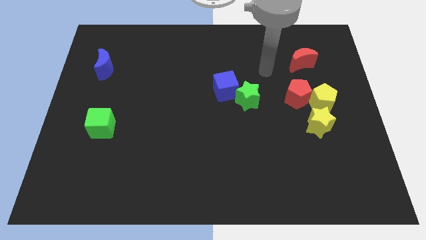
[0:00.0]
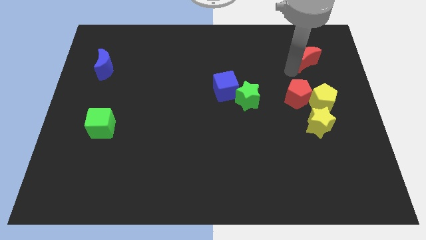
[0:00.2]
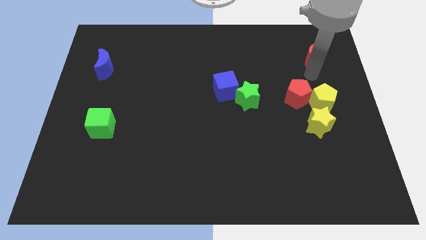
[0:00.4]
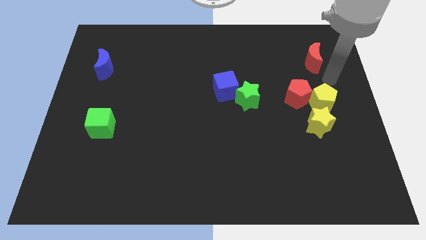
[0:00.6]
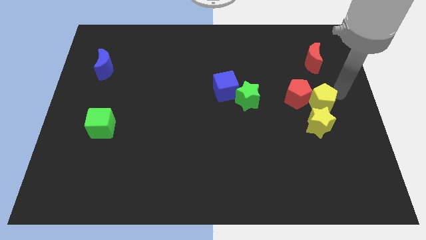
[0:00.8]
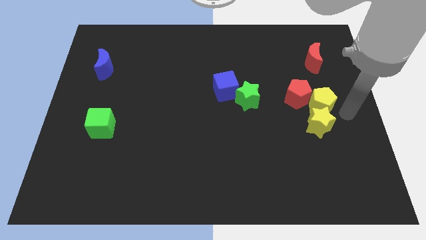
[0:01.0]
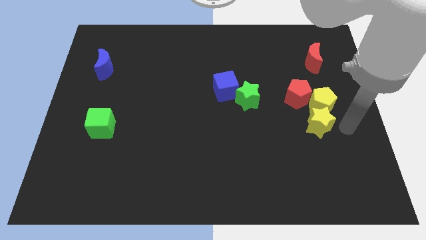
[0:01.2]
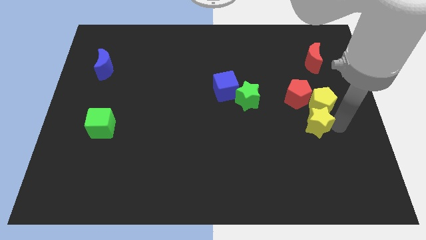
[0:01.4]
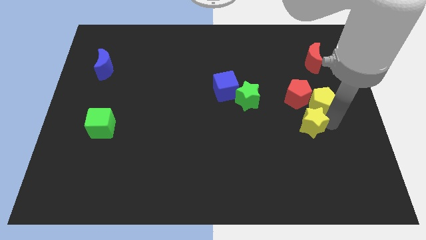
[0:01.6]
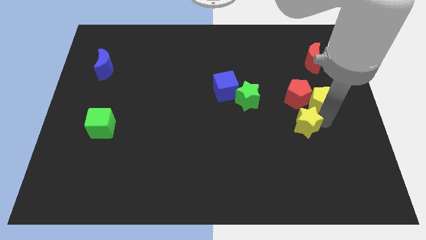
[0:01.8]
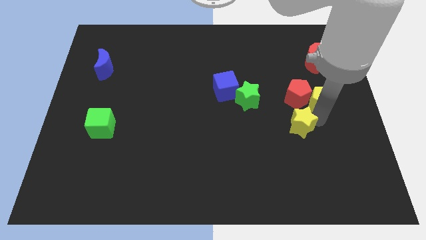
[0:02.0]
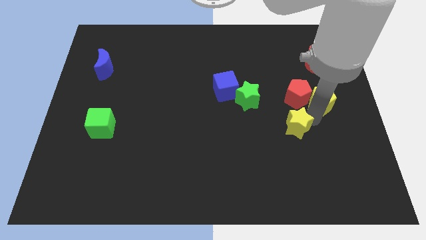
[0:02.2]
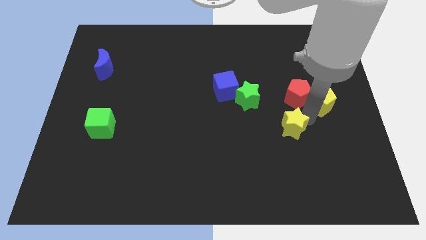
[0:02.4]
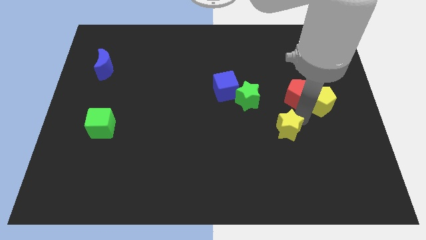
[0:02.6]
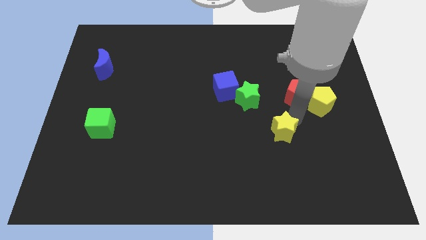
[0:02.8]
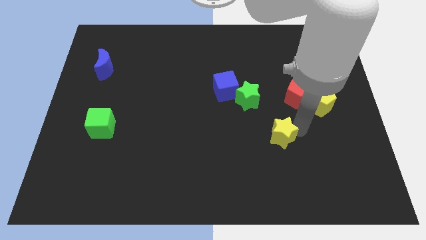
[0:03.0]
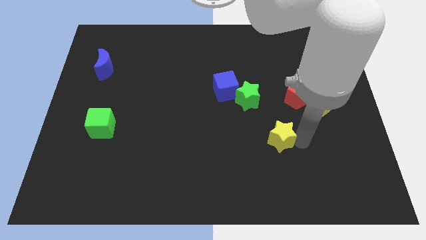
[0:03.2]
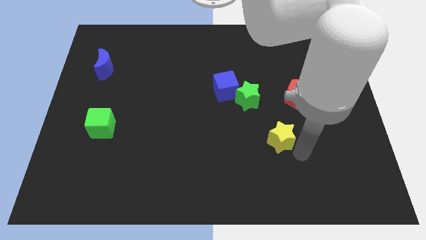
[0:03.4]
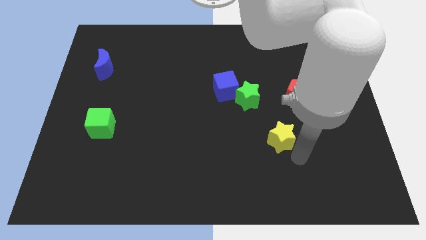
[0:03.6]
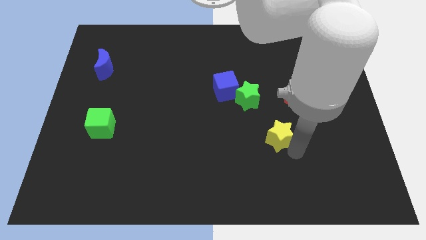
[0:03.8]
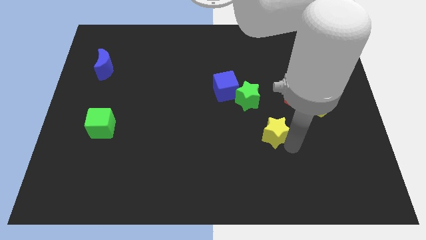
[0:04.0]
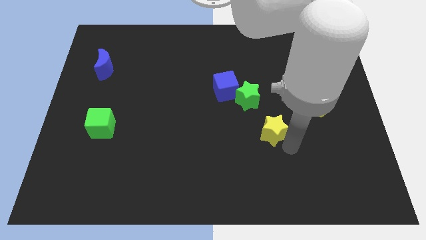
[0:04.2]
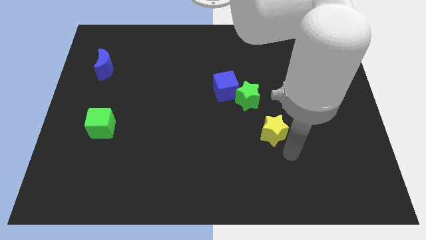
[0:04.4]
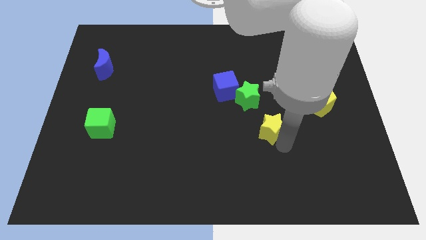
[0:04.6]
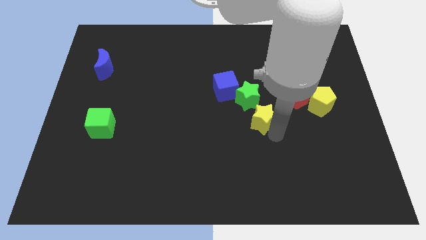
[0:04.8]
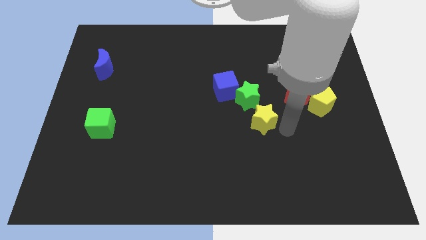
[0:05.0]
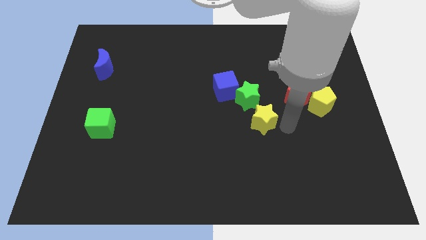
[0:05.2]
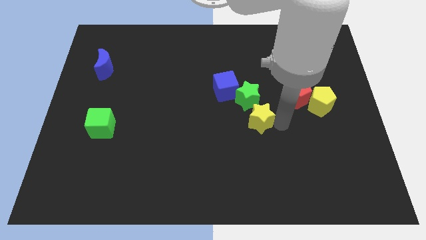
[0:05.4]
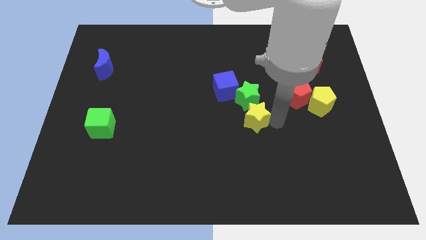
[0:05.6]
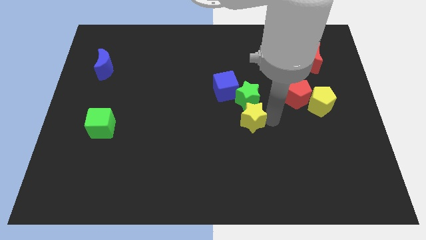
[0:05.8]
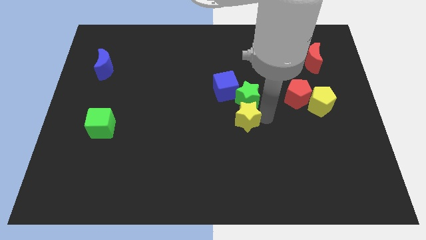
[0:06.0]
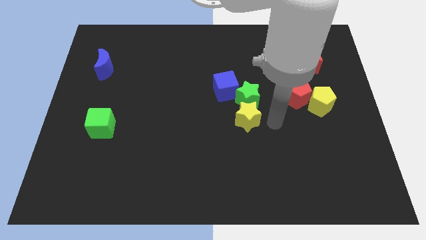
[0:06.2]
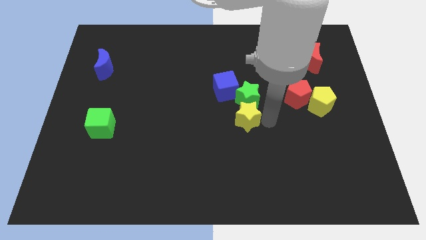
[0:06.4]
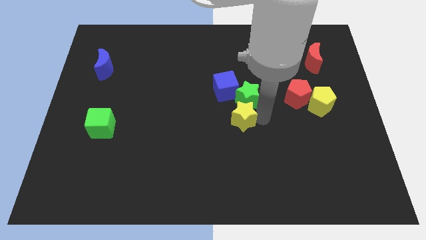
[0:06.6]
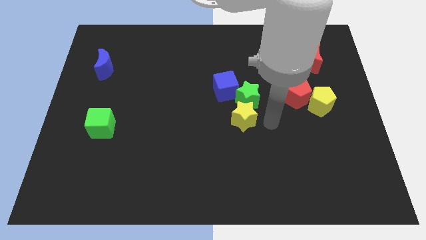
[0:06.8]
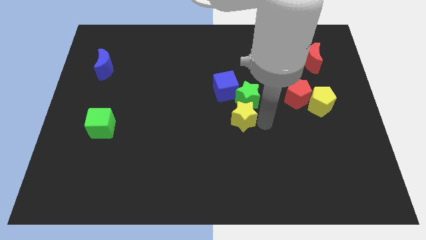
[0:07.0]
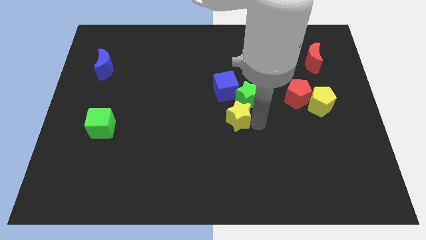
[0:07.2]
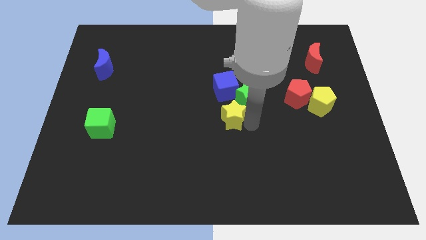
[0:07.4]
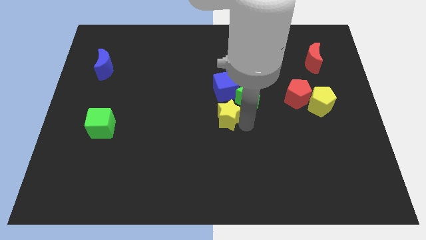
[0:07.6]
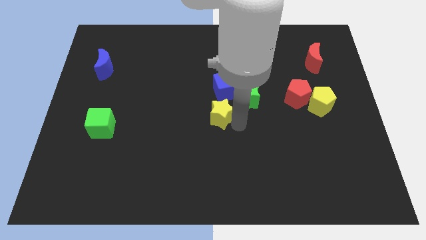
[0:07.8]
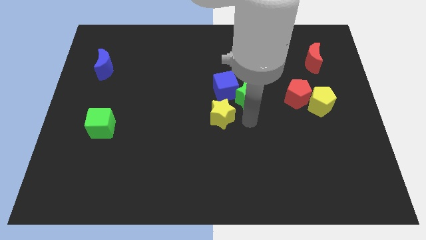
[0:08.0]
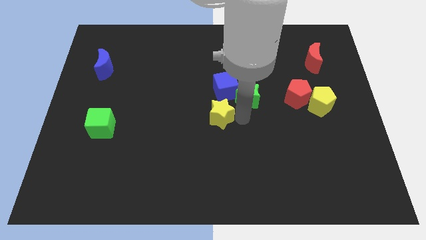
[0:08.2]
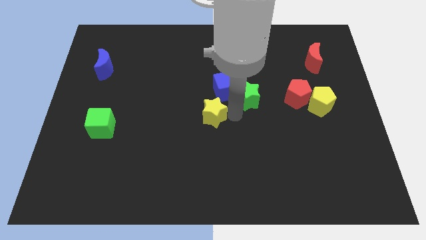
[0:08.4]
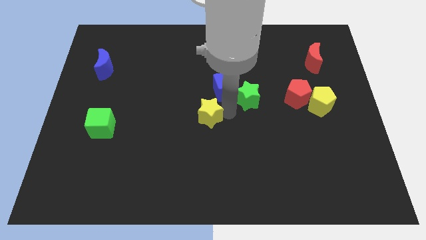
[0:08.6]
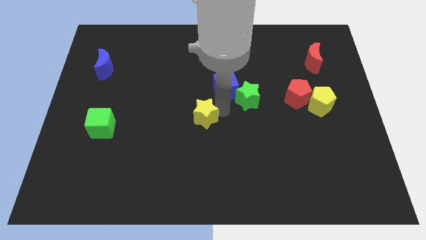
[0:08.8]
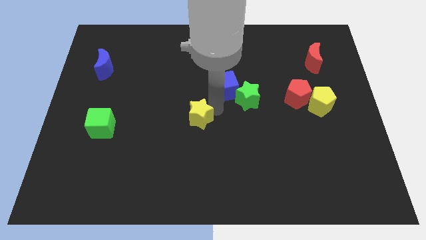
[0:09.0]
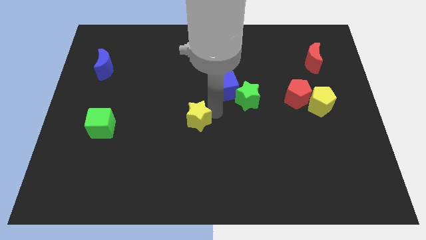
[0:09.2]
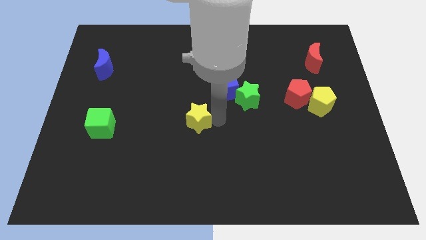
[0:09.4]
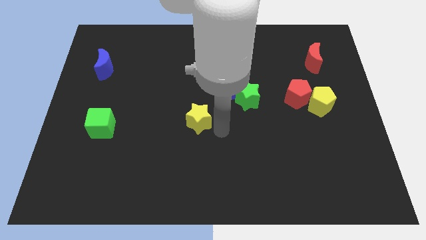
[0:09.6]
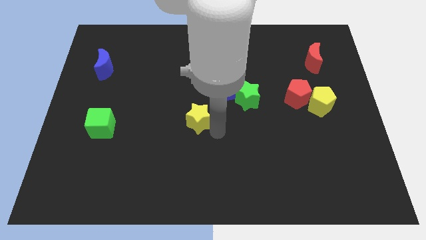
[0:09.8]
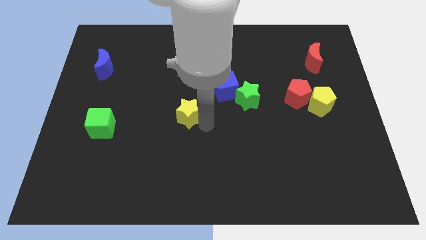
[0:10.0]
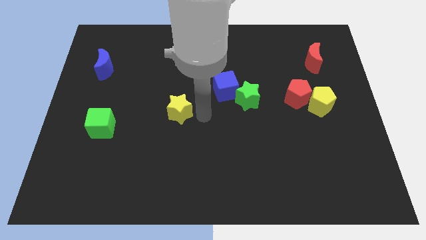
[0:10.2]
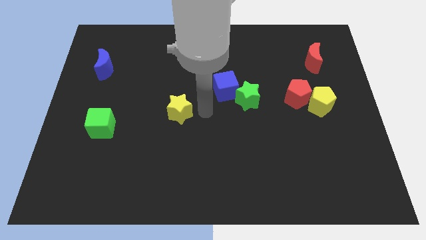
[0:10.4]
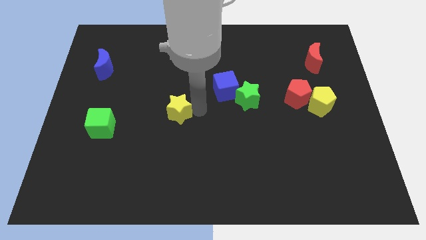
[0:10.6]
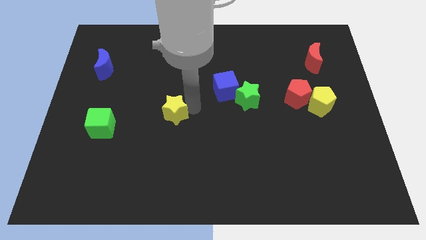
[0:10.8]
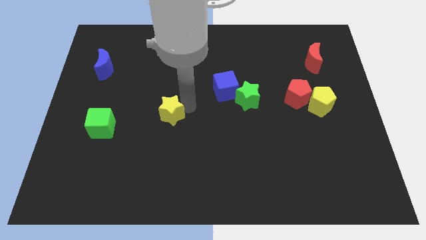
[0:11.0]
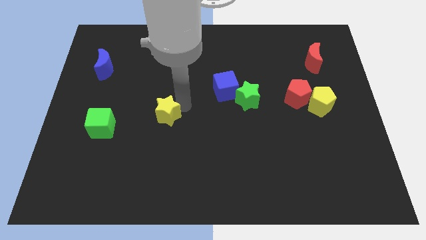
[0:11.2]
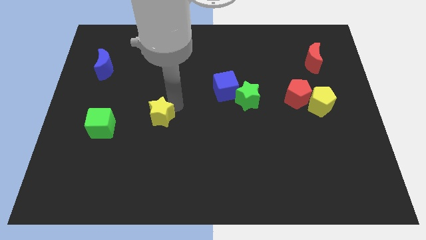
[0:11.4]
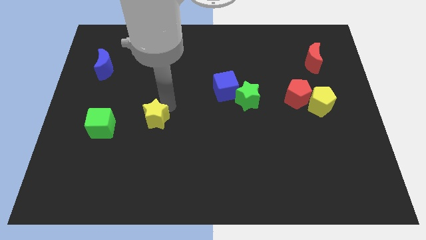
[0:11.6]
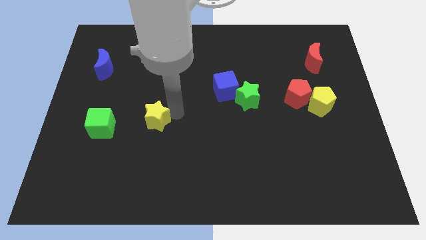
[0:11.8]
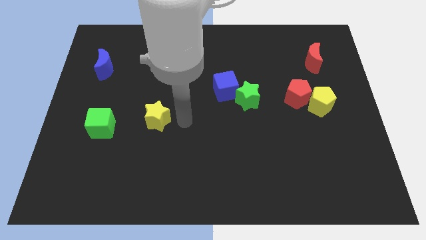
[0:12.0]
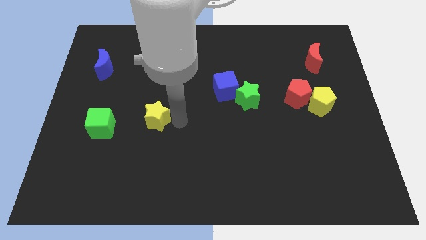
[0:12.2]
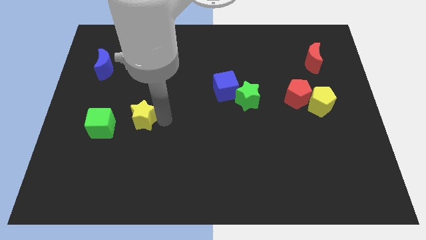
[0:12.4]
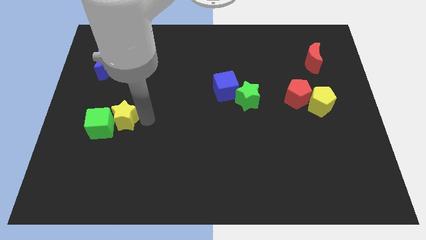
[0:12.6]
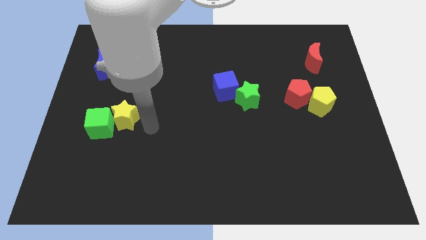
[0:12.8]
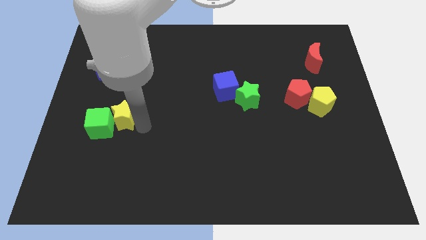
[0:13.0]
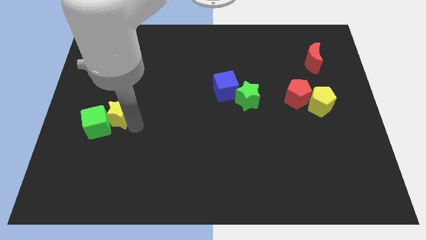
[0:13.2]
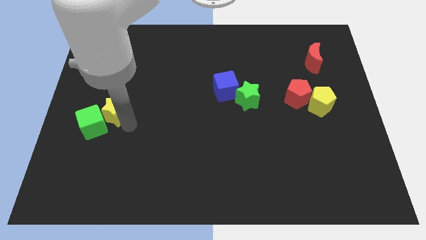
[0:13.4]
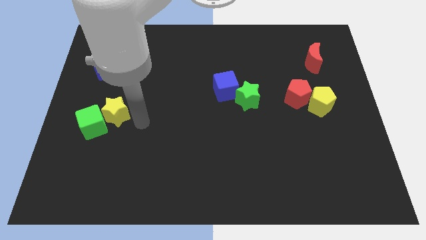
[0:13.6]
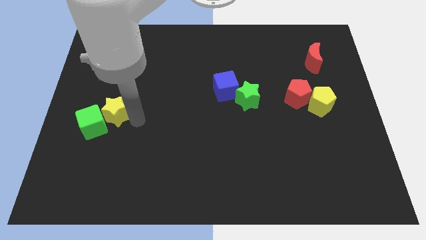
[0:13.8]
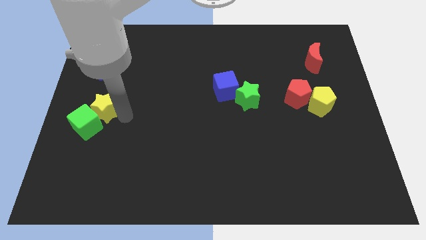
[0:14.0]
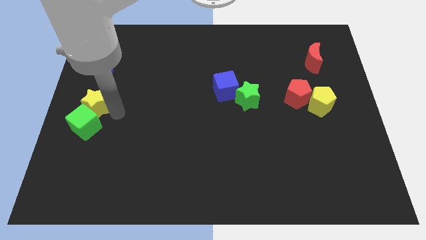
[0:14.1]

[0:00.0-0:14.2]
push the yellow star to the center left
